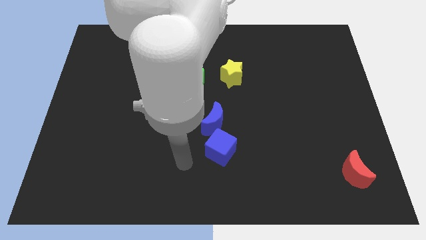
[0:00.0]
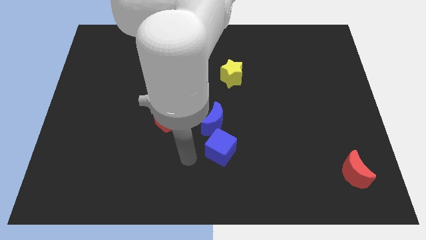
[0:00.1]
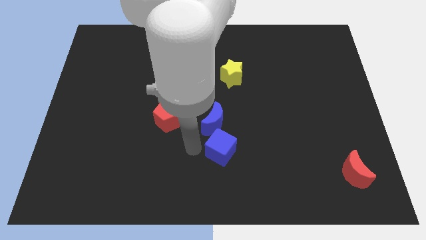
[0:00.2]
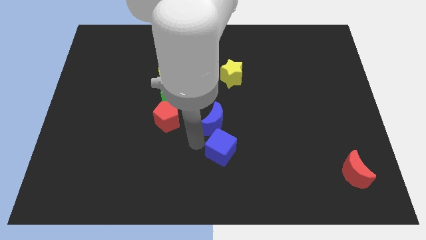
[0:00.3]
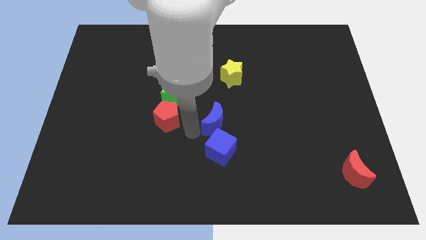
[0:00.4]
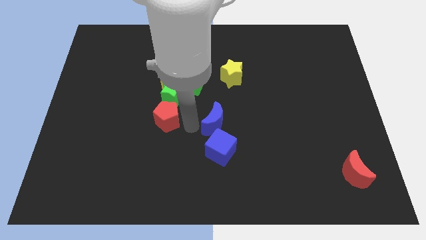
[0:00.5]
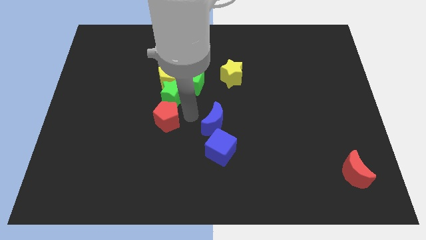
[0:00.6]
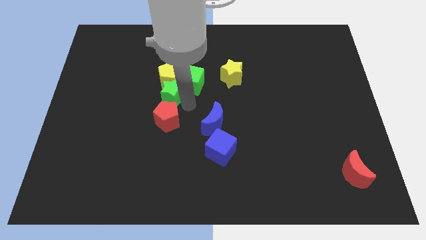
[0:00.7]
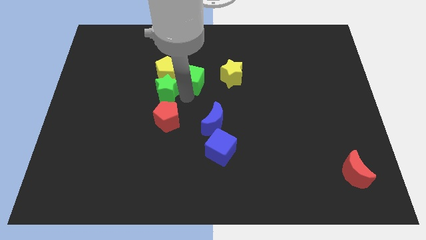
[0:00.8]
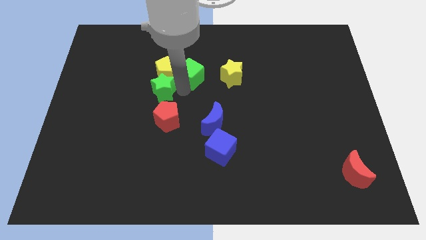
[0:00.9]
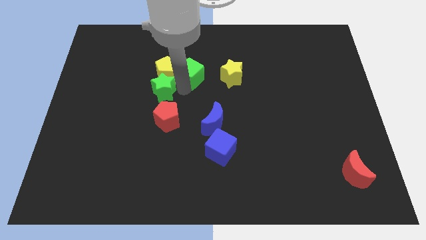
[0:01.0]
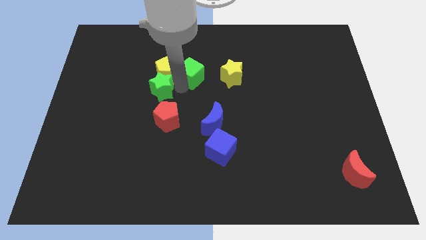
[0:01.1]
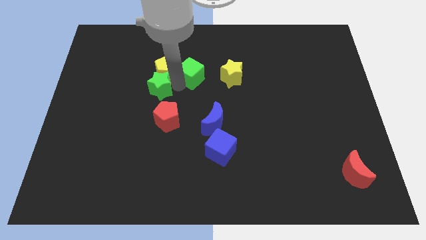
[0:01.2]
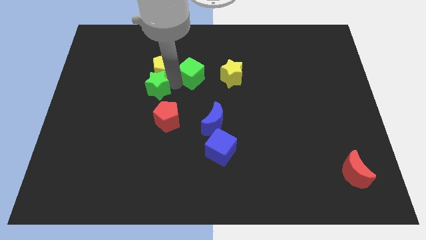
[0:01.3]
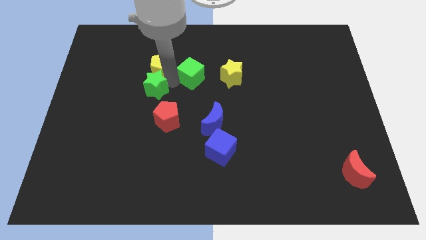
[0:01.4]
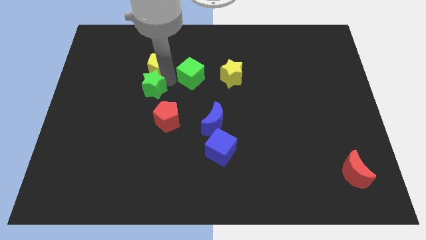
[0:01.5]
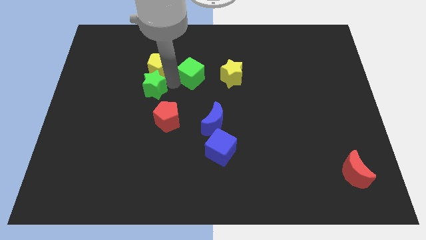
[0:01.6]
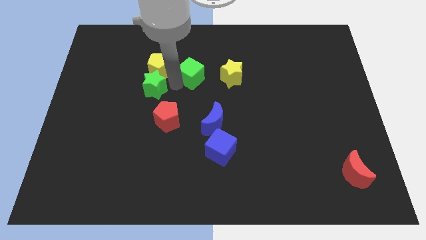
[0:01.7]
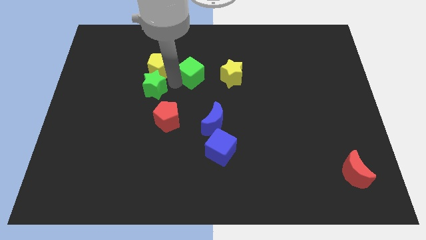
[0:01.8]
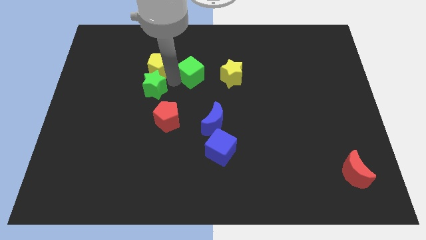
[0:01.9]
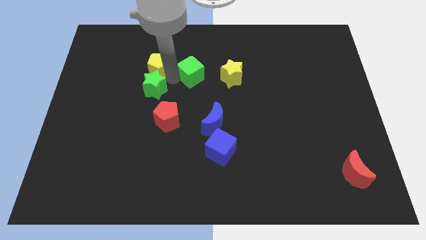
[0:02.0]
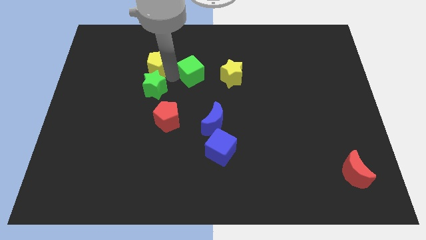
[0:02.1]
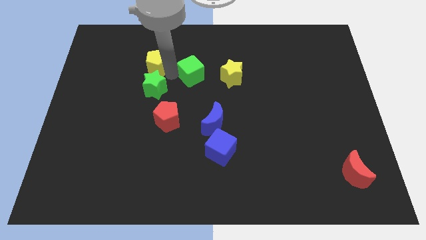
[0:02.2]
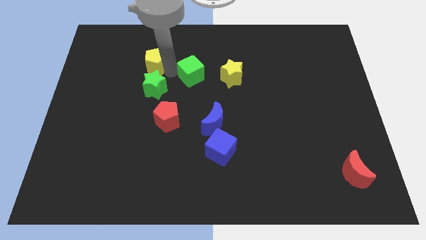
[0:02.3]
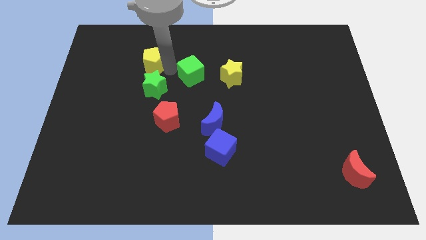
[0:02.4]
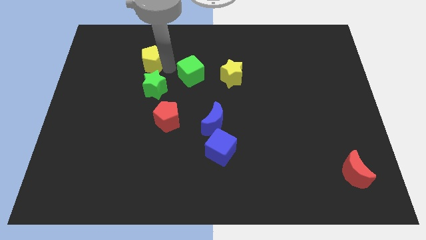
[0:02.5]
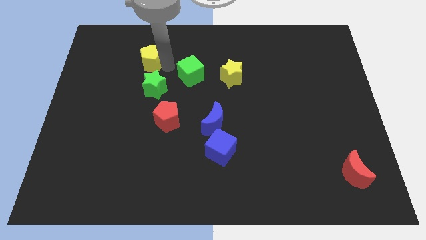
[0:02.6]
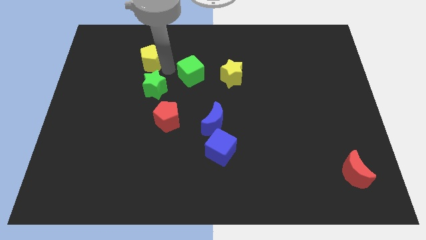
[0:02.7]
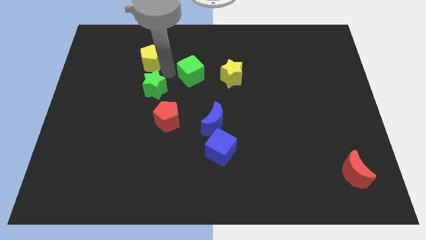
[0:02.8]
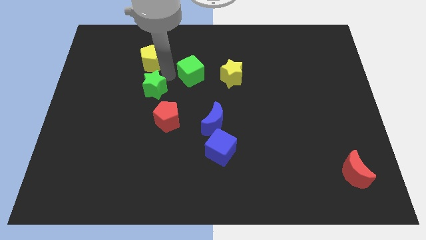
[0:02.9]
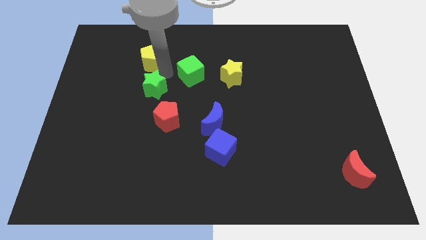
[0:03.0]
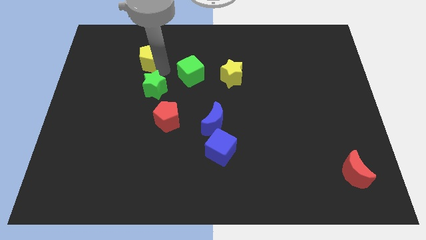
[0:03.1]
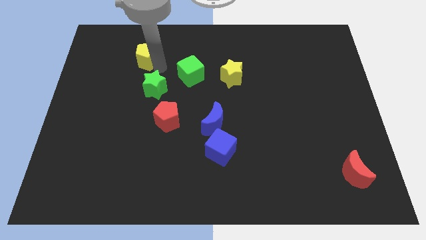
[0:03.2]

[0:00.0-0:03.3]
pull the yellow pentagon apart from the green cube and green star

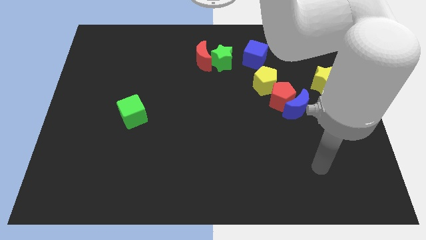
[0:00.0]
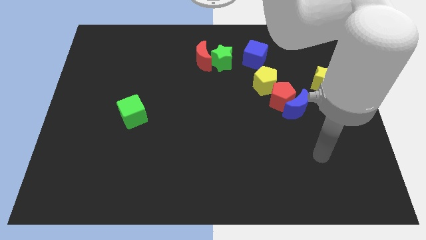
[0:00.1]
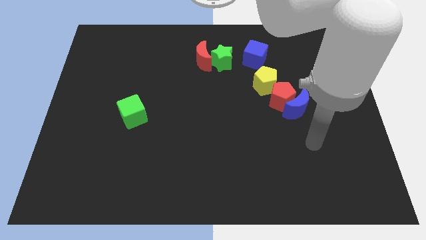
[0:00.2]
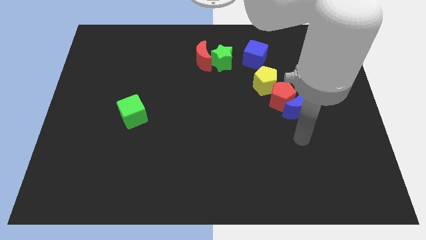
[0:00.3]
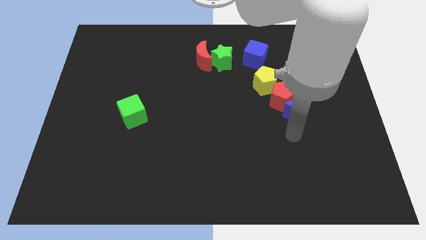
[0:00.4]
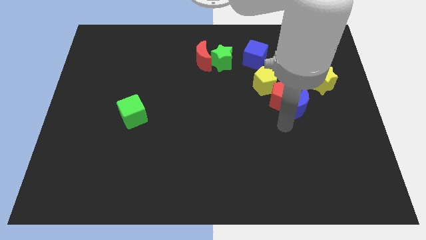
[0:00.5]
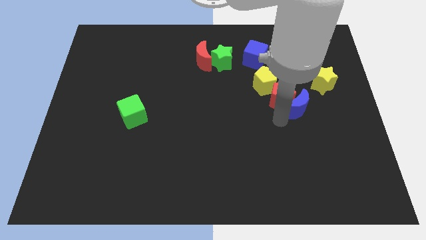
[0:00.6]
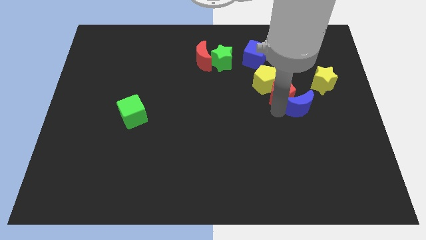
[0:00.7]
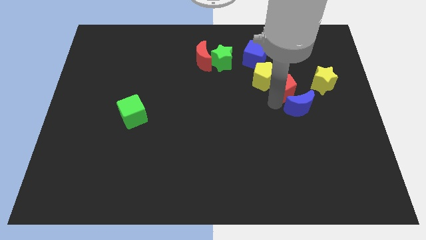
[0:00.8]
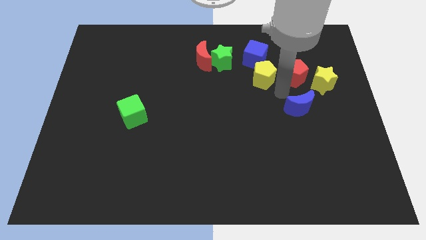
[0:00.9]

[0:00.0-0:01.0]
pull the blue moon apart from the red pentagon

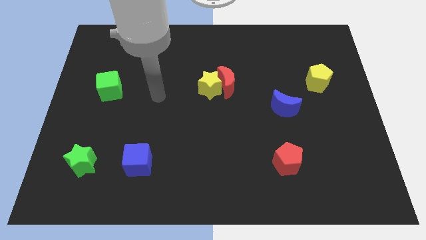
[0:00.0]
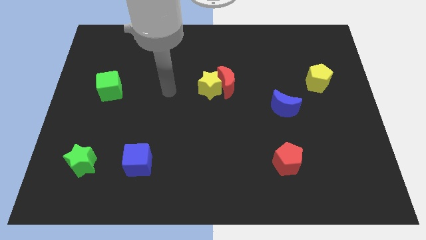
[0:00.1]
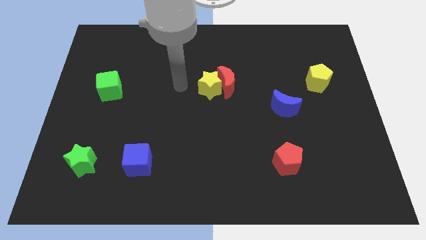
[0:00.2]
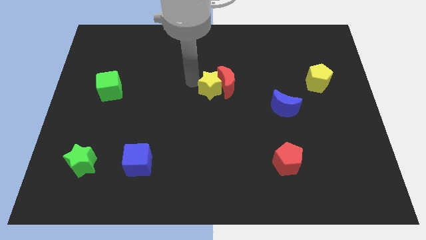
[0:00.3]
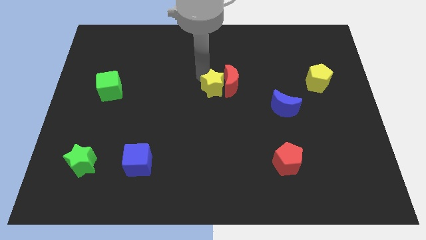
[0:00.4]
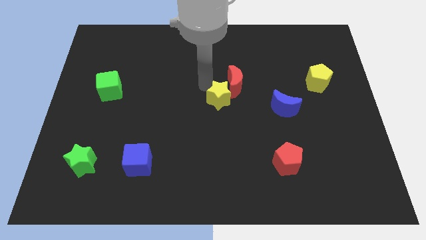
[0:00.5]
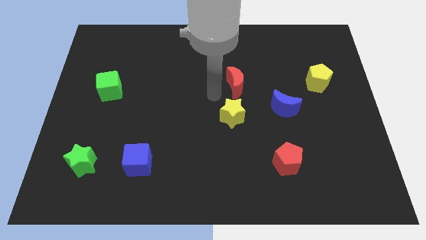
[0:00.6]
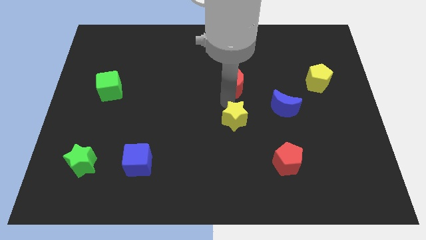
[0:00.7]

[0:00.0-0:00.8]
pull the red moon apart from the yellow star

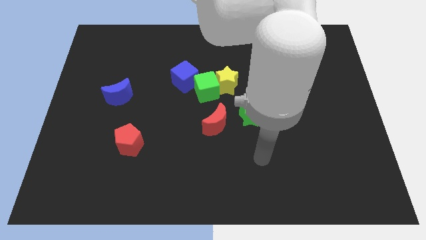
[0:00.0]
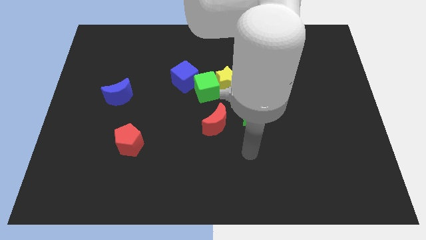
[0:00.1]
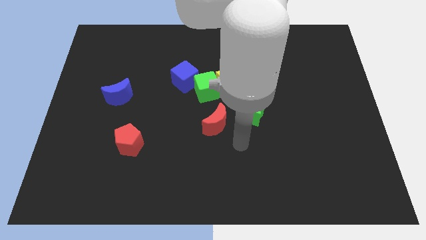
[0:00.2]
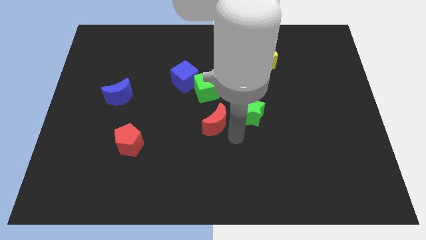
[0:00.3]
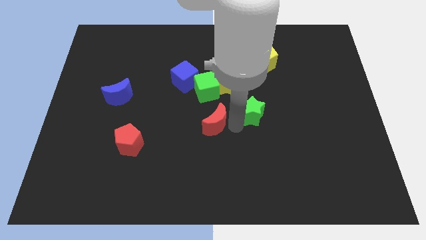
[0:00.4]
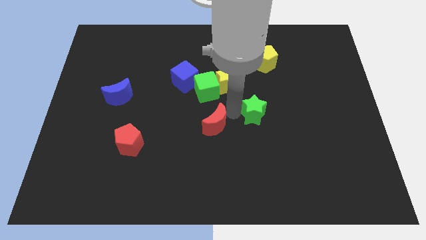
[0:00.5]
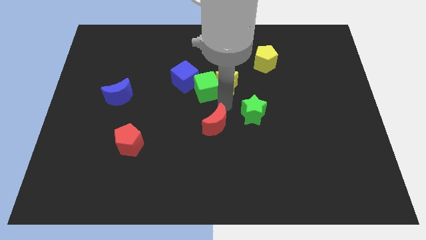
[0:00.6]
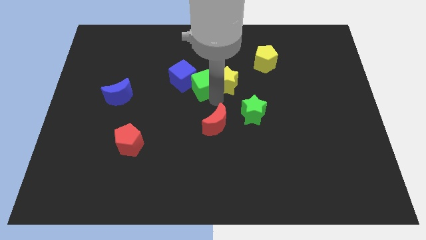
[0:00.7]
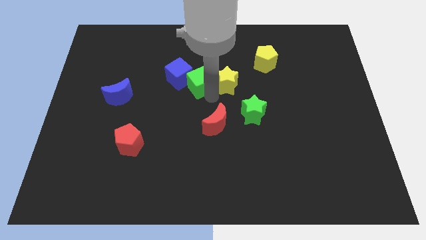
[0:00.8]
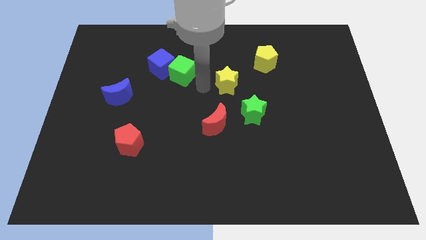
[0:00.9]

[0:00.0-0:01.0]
pull the yellow star apart from the green cube

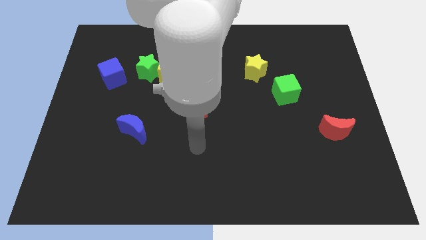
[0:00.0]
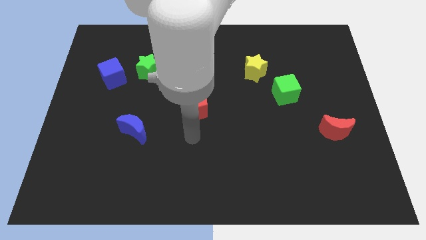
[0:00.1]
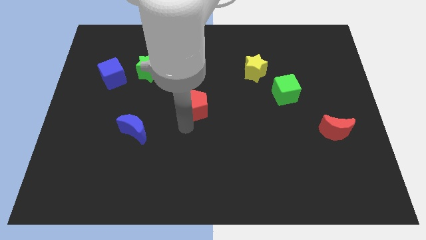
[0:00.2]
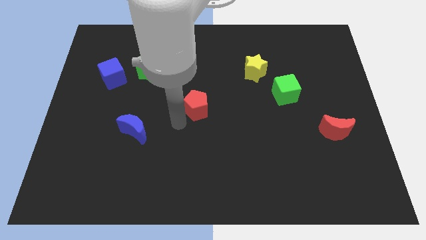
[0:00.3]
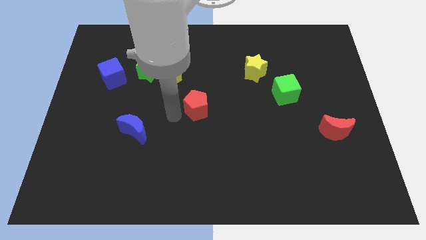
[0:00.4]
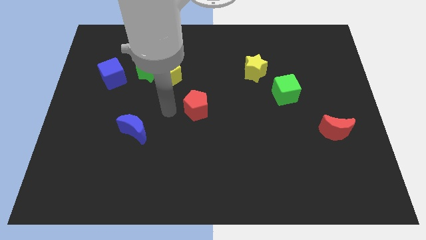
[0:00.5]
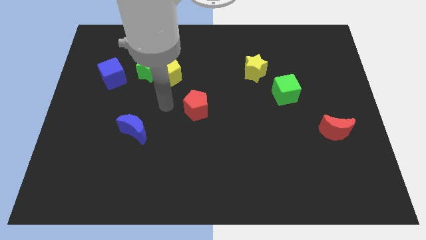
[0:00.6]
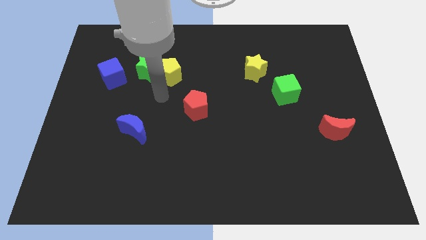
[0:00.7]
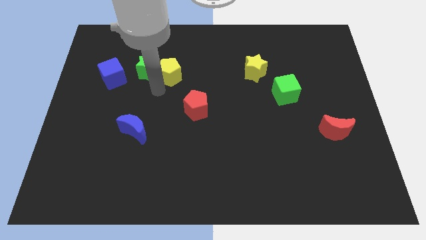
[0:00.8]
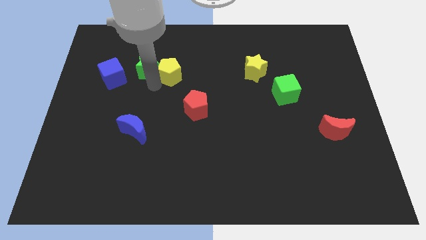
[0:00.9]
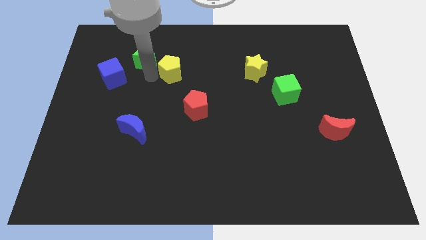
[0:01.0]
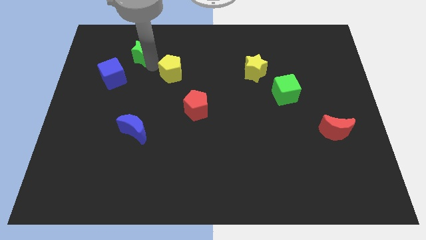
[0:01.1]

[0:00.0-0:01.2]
move the yellow pentagon away from the green star

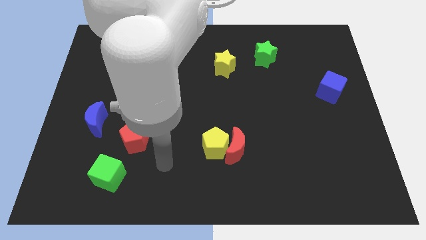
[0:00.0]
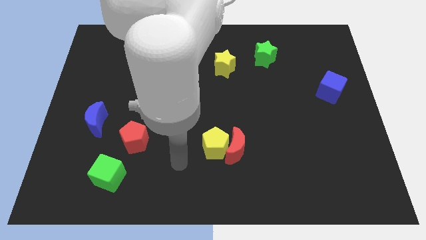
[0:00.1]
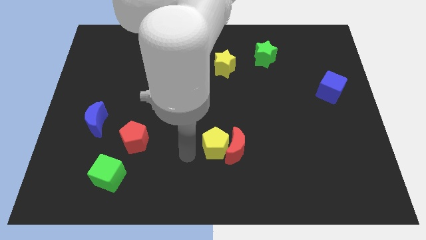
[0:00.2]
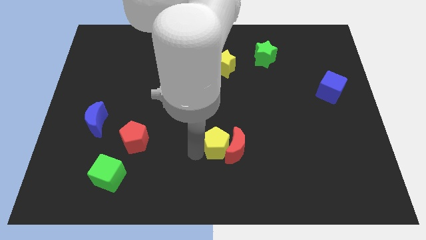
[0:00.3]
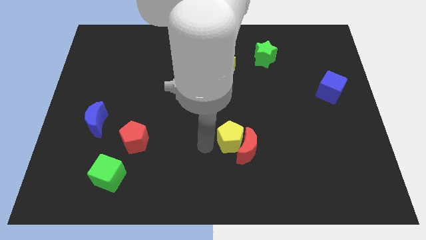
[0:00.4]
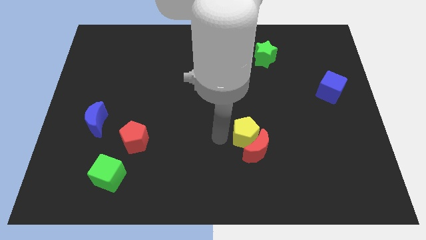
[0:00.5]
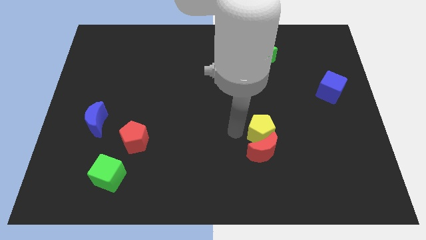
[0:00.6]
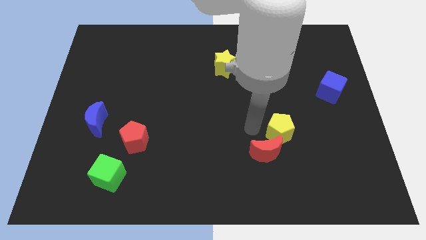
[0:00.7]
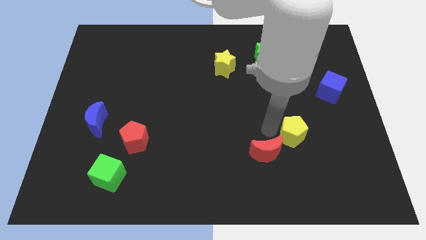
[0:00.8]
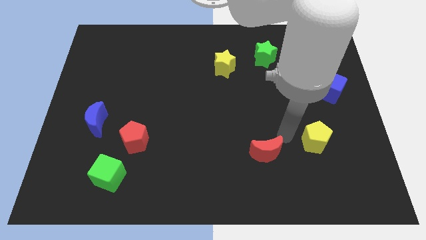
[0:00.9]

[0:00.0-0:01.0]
pull the red moon apart from the yellow pentagon

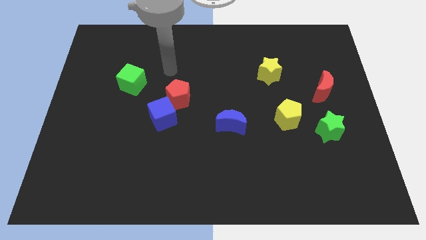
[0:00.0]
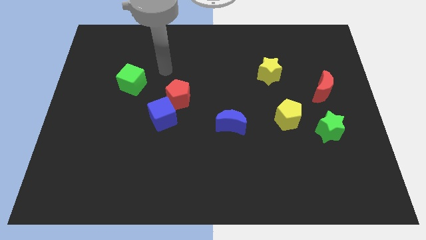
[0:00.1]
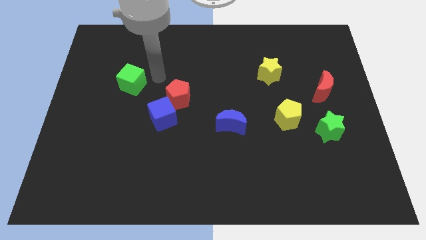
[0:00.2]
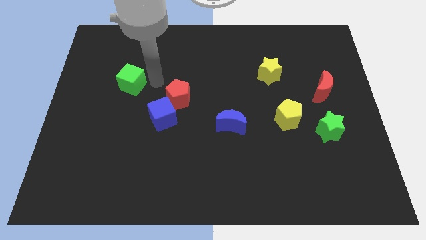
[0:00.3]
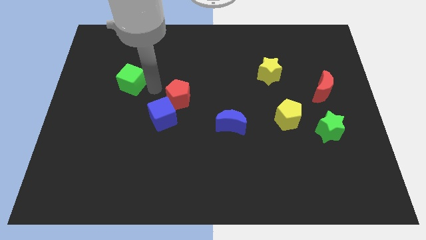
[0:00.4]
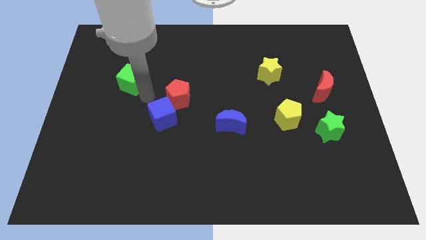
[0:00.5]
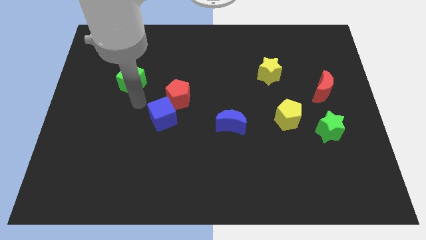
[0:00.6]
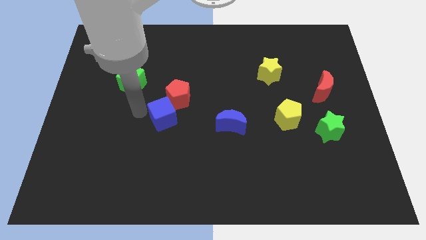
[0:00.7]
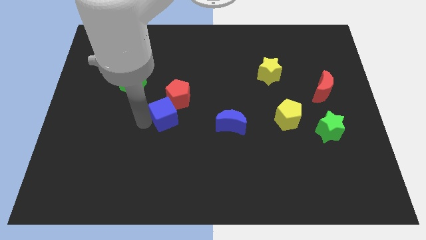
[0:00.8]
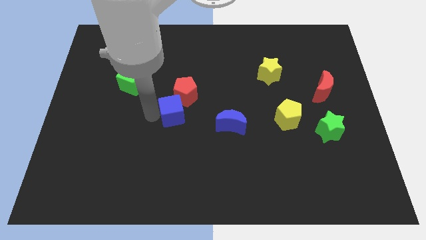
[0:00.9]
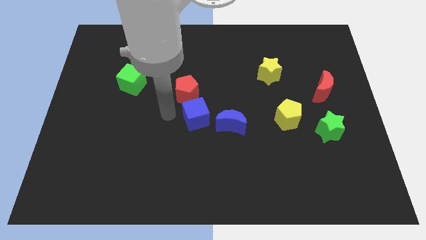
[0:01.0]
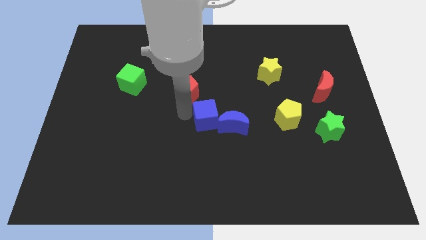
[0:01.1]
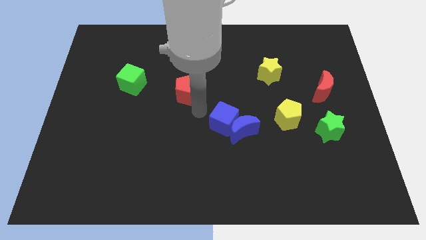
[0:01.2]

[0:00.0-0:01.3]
move the red pentagon away from the blue cube
